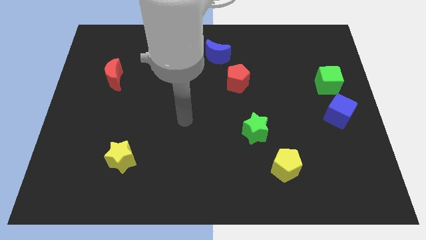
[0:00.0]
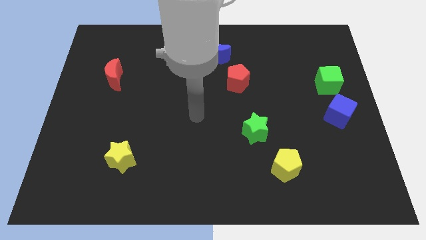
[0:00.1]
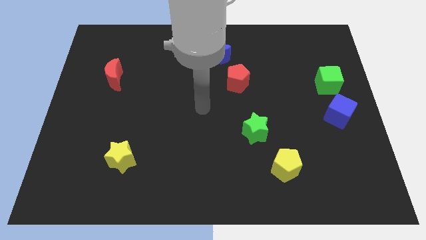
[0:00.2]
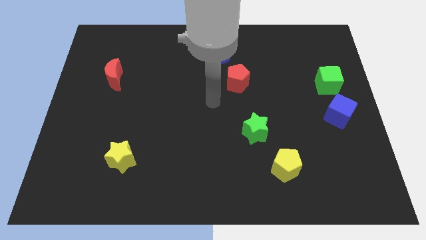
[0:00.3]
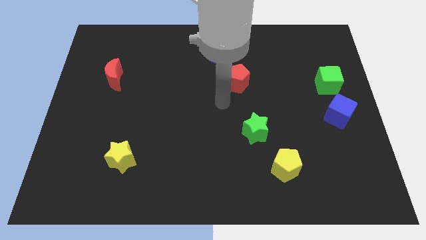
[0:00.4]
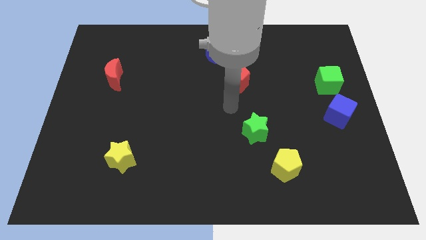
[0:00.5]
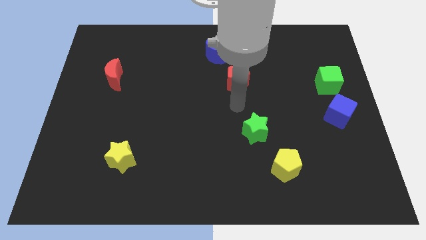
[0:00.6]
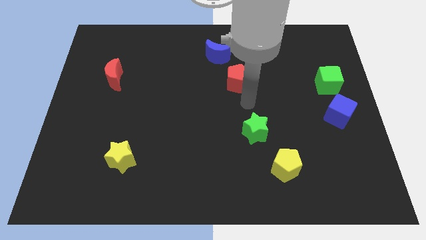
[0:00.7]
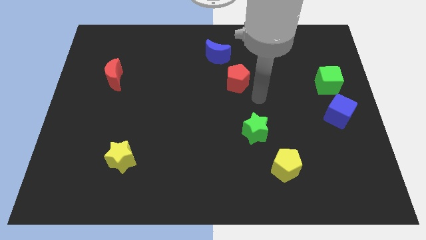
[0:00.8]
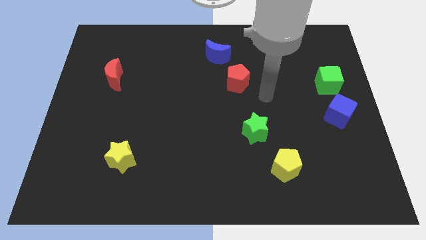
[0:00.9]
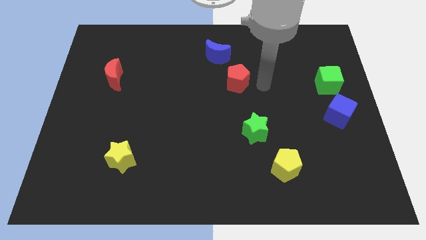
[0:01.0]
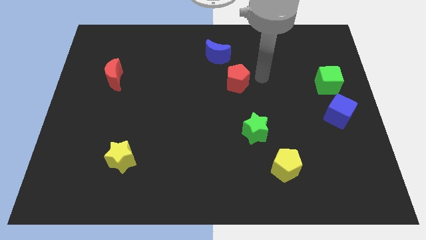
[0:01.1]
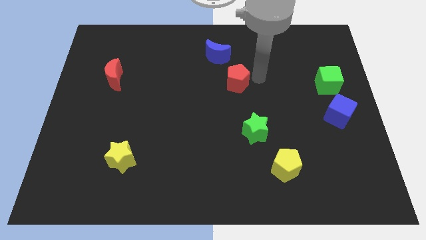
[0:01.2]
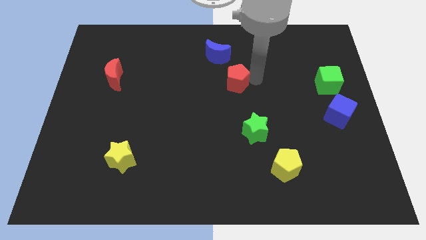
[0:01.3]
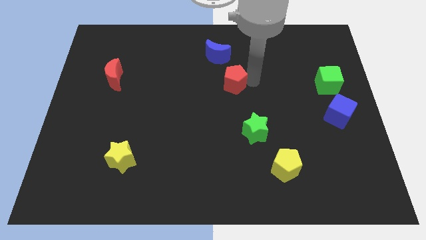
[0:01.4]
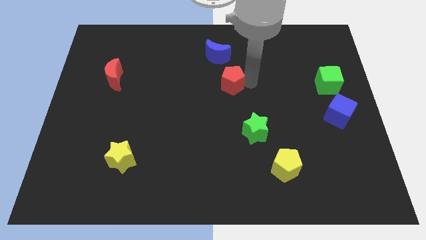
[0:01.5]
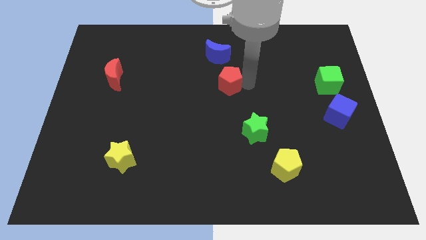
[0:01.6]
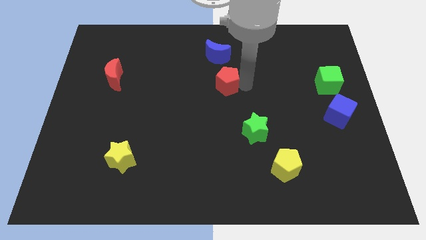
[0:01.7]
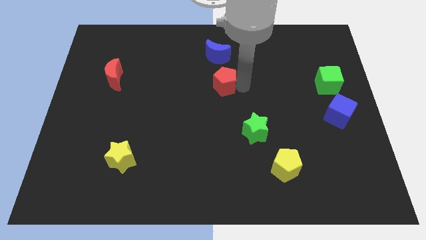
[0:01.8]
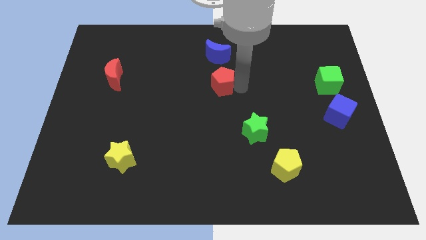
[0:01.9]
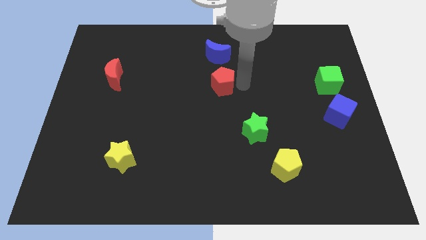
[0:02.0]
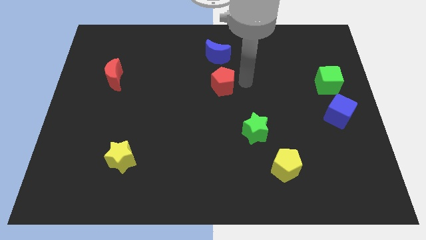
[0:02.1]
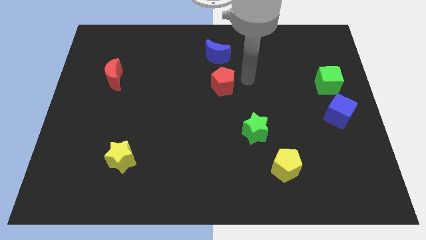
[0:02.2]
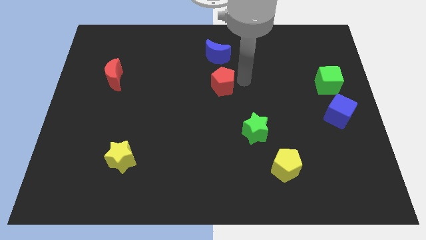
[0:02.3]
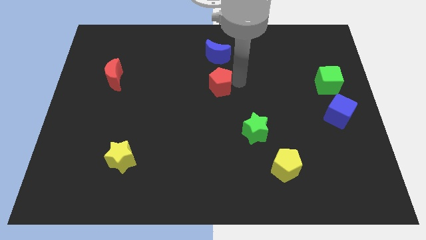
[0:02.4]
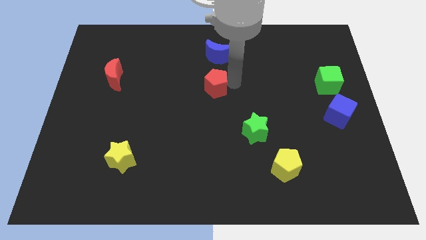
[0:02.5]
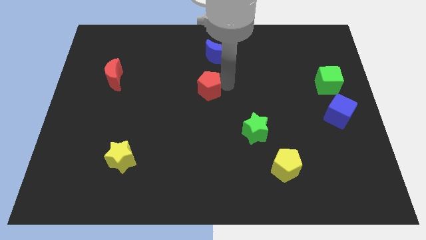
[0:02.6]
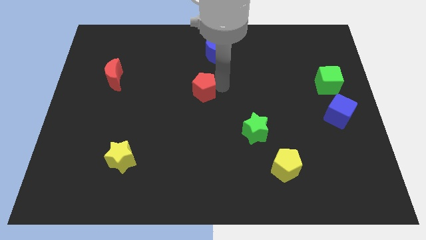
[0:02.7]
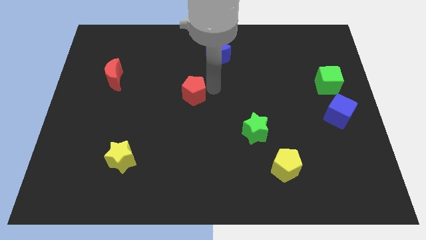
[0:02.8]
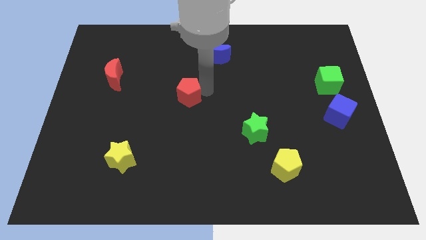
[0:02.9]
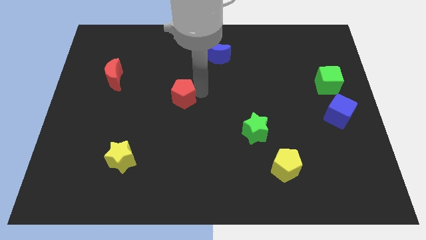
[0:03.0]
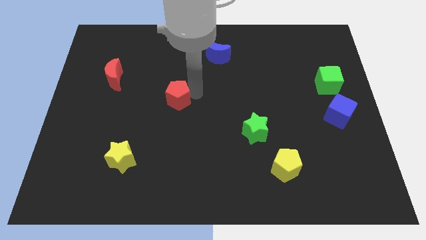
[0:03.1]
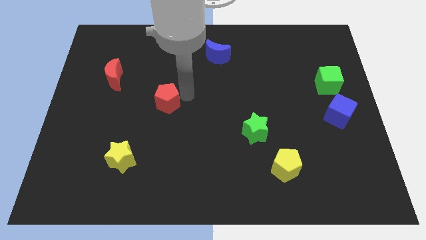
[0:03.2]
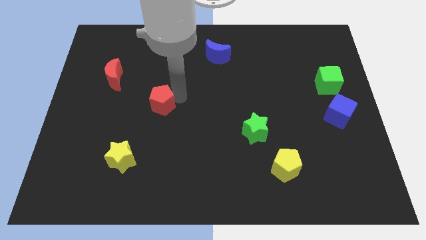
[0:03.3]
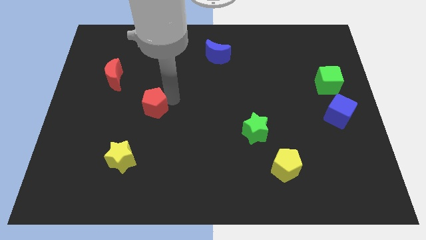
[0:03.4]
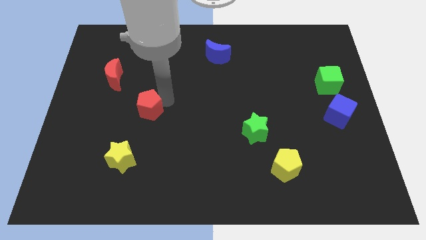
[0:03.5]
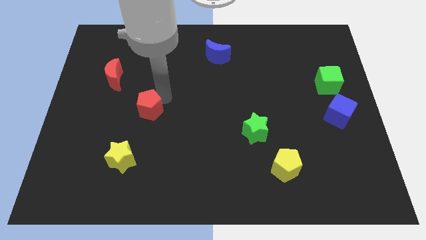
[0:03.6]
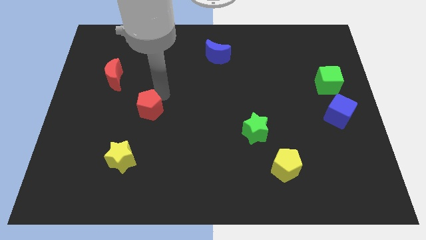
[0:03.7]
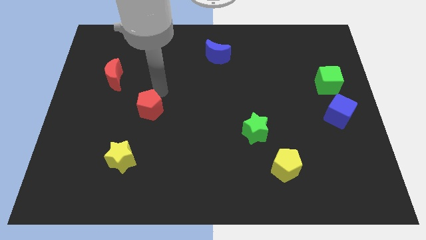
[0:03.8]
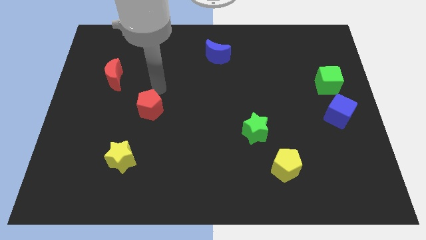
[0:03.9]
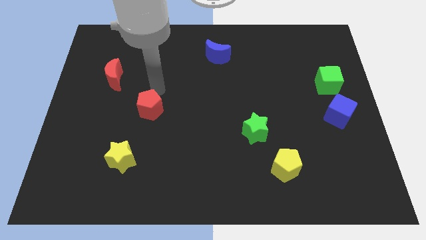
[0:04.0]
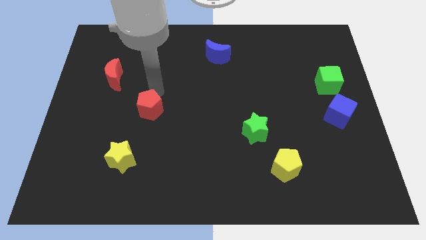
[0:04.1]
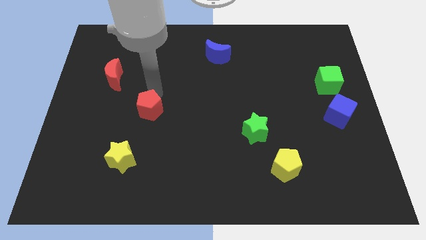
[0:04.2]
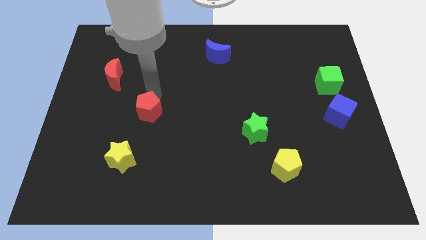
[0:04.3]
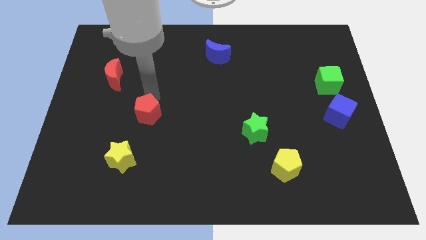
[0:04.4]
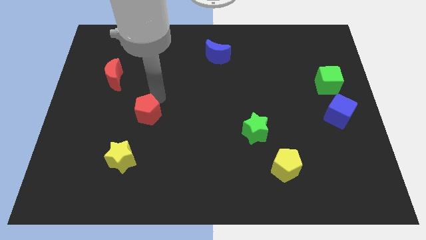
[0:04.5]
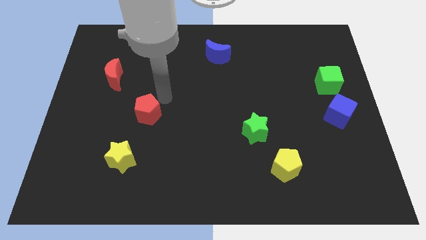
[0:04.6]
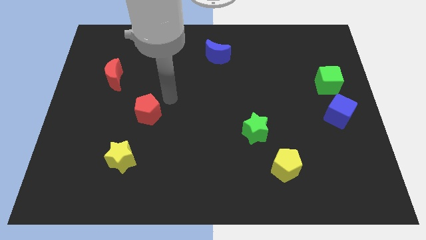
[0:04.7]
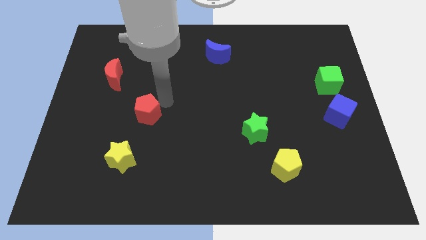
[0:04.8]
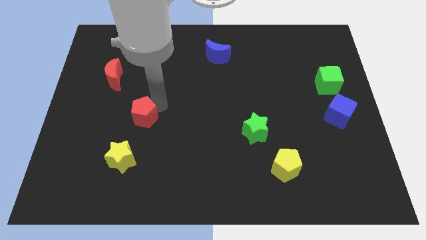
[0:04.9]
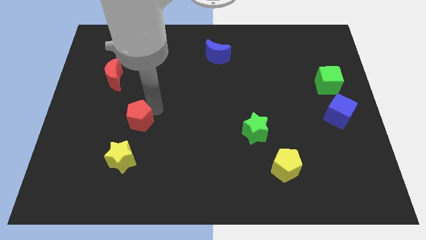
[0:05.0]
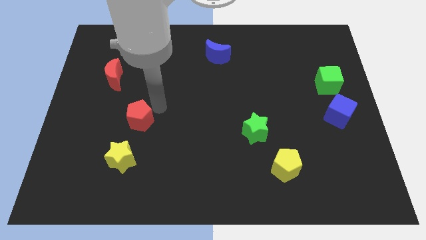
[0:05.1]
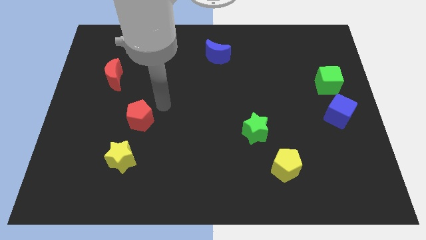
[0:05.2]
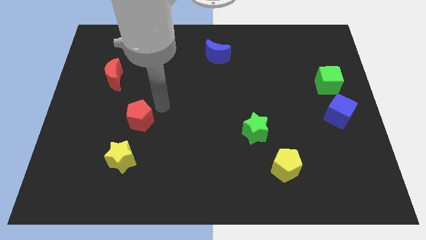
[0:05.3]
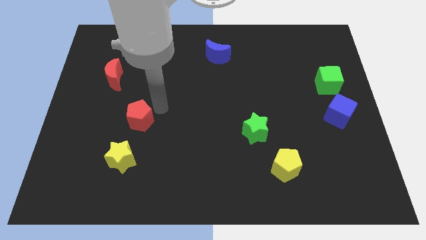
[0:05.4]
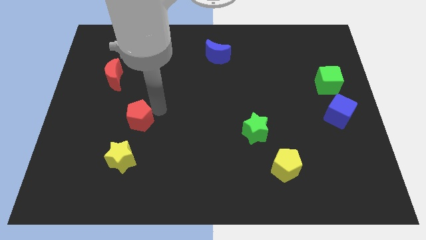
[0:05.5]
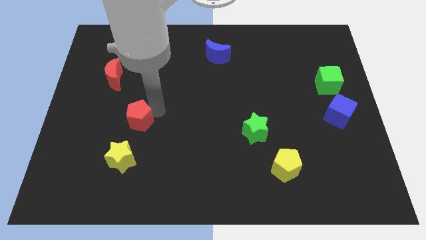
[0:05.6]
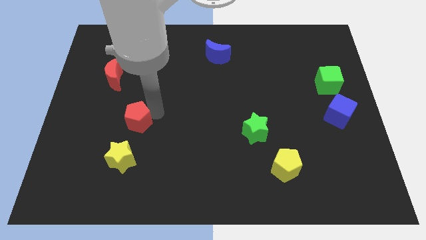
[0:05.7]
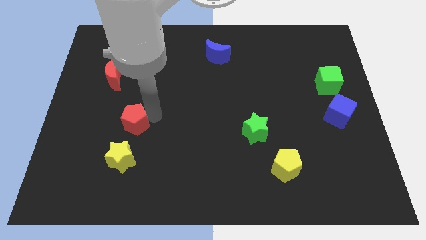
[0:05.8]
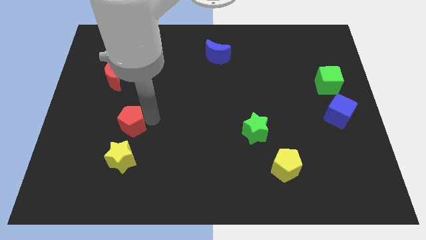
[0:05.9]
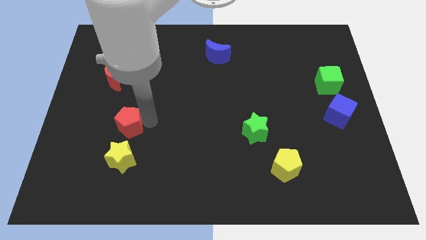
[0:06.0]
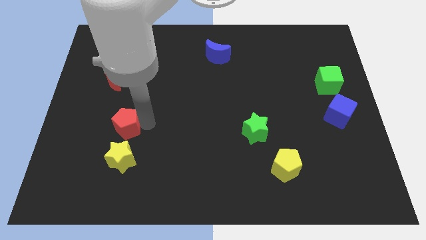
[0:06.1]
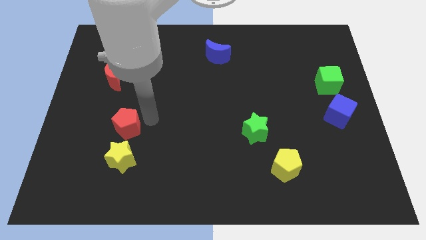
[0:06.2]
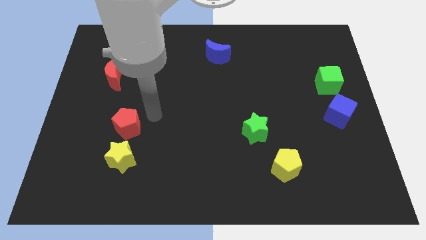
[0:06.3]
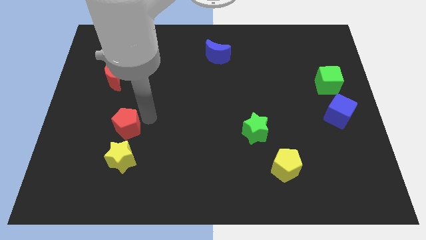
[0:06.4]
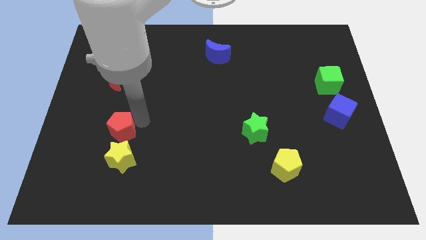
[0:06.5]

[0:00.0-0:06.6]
put the red pentagon to the top left of the yellow star

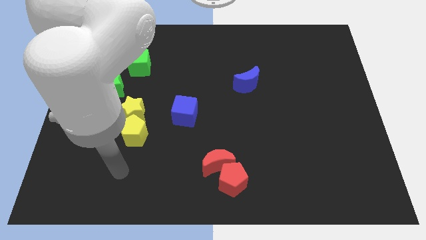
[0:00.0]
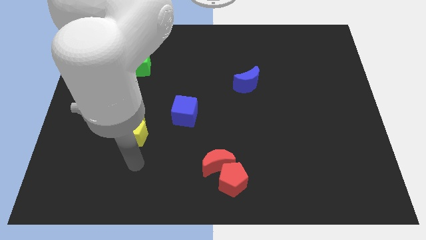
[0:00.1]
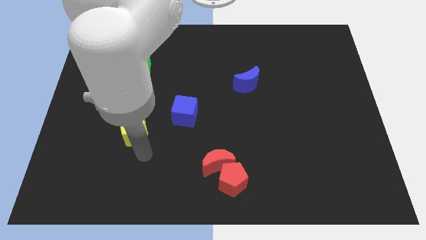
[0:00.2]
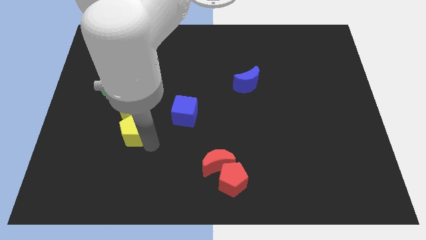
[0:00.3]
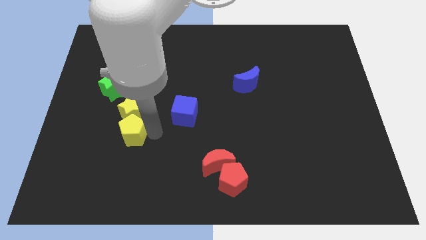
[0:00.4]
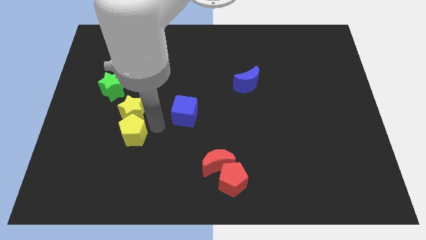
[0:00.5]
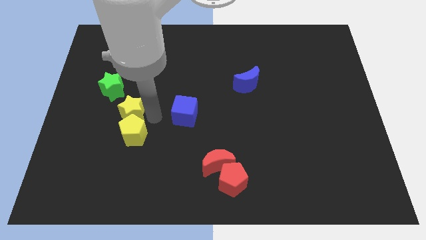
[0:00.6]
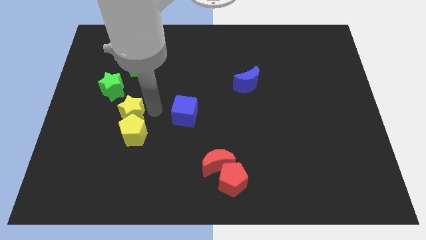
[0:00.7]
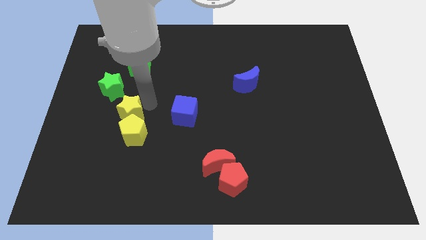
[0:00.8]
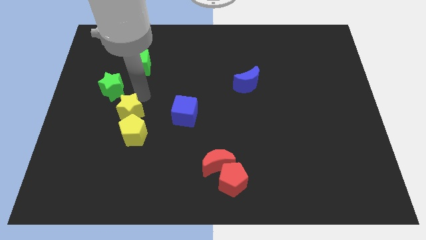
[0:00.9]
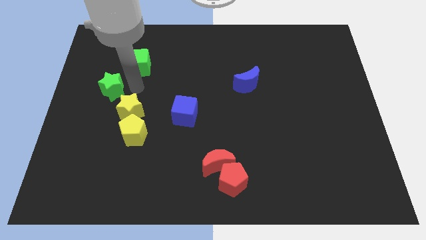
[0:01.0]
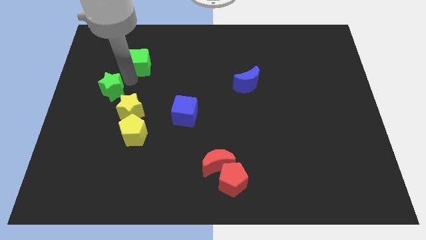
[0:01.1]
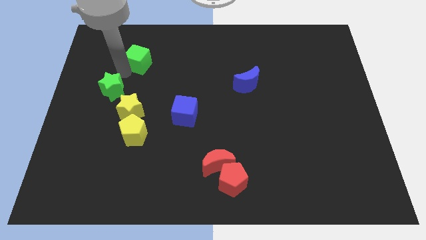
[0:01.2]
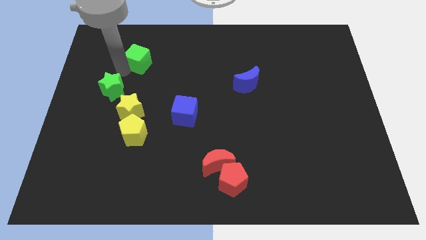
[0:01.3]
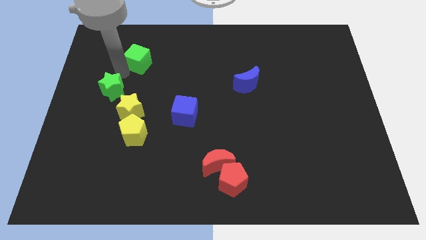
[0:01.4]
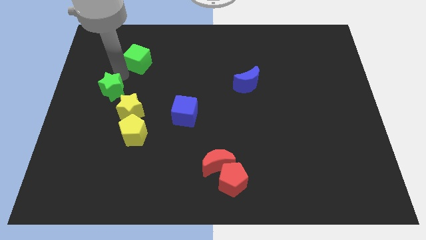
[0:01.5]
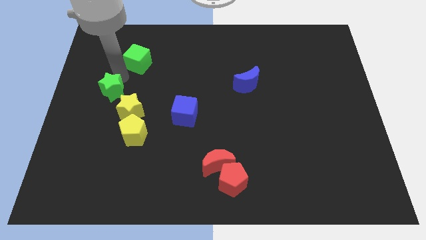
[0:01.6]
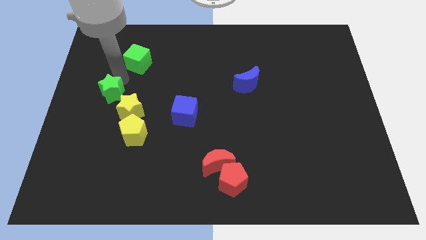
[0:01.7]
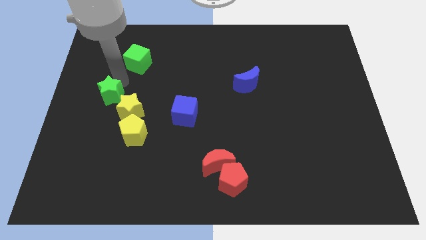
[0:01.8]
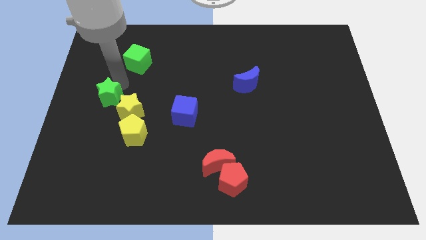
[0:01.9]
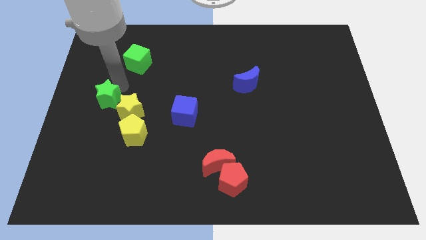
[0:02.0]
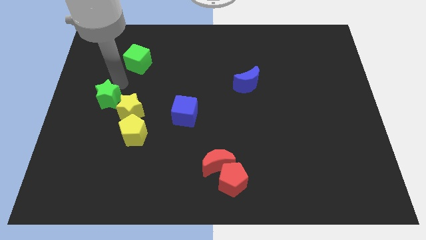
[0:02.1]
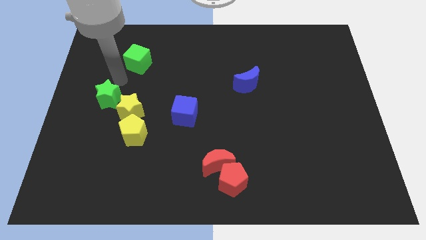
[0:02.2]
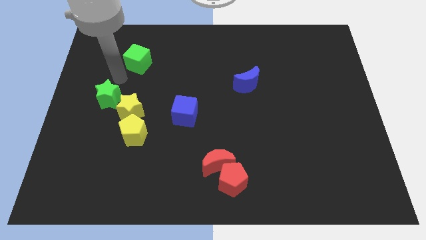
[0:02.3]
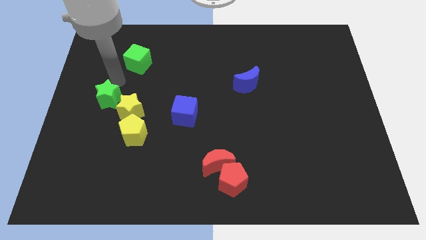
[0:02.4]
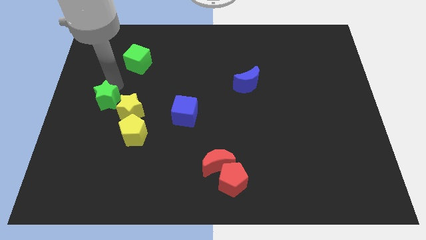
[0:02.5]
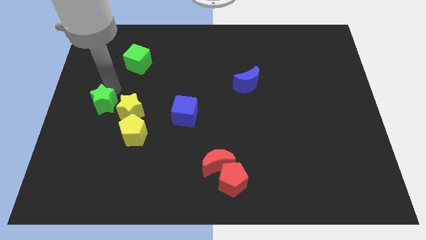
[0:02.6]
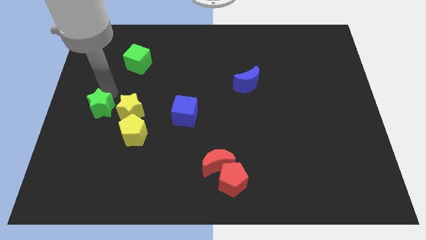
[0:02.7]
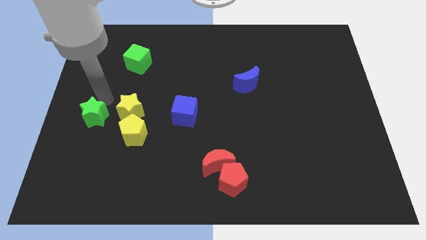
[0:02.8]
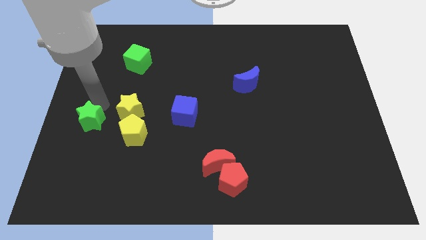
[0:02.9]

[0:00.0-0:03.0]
push the green star to the left side of the yellow pentagon
